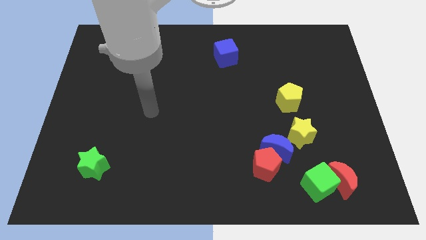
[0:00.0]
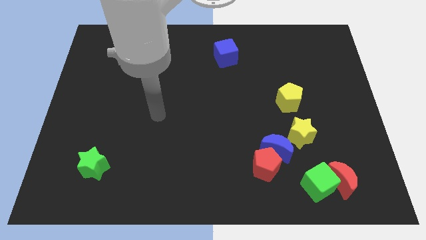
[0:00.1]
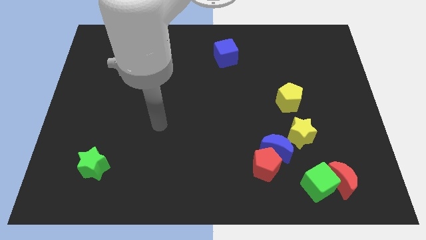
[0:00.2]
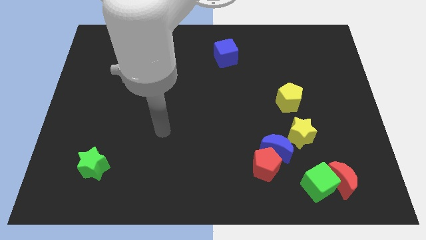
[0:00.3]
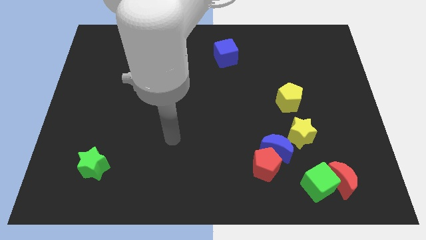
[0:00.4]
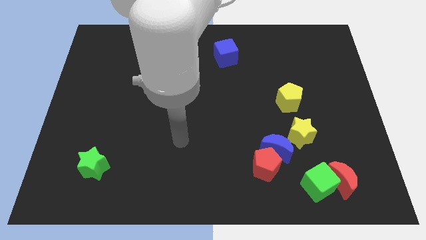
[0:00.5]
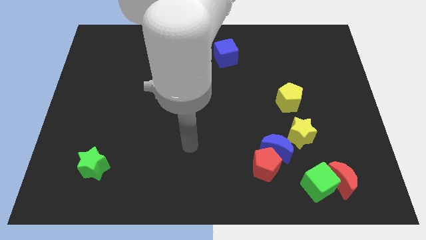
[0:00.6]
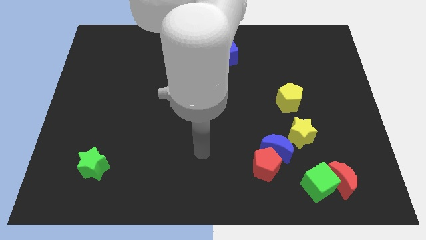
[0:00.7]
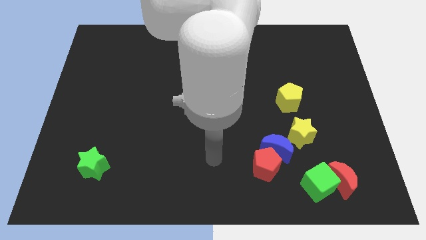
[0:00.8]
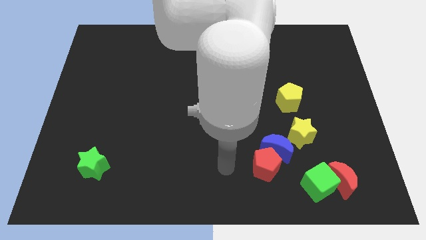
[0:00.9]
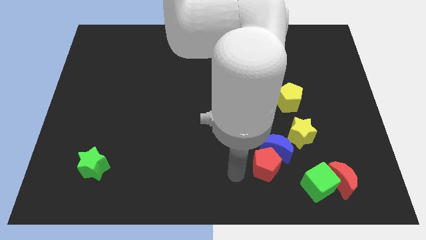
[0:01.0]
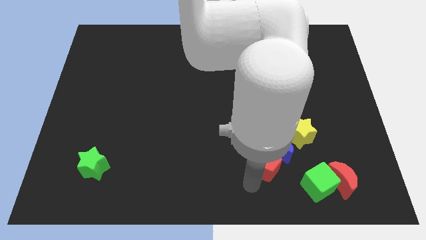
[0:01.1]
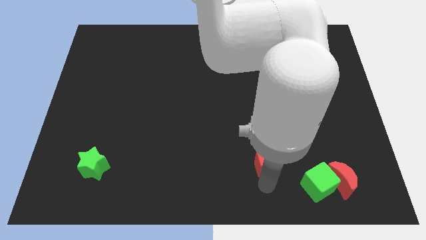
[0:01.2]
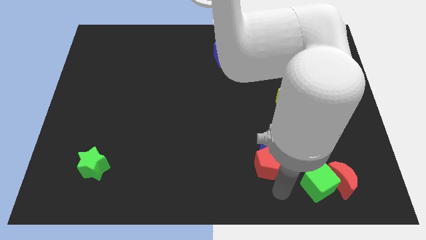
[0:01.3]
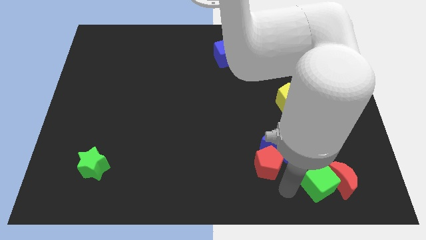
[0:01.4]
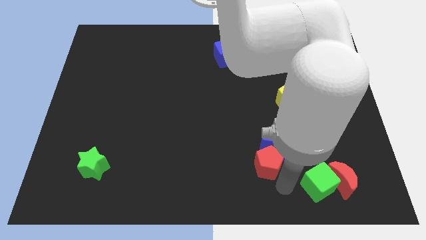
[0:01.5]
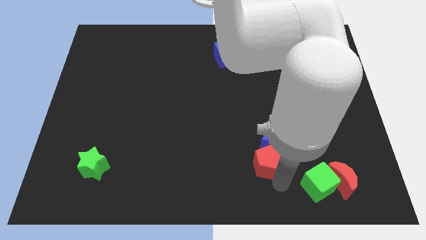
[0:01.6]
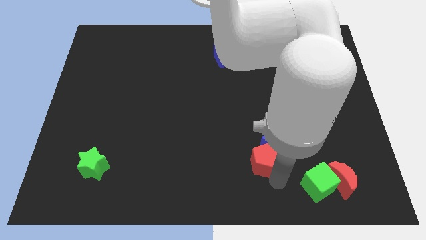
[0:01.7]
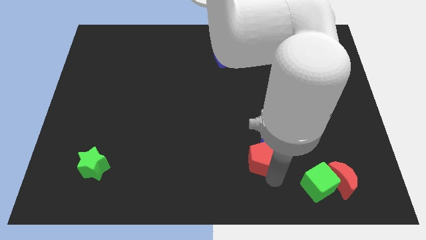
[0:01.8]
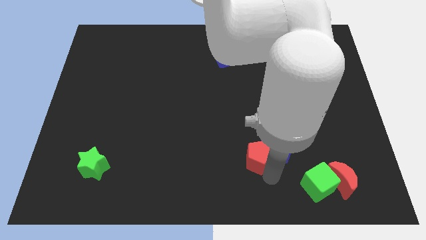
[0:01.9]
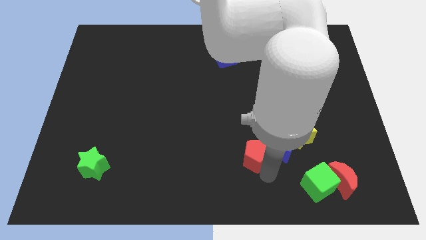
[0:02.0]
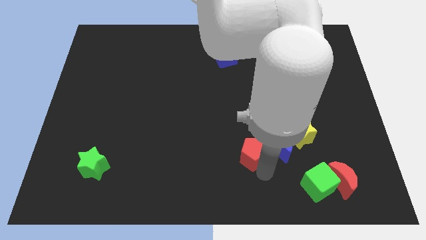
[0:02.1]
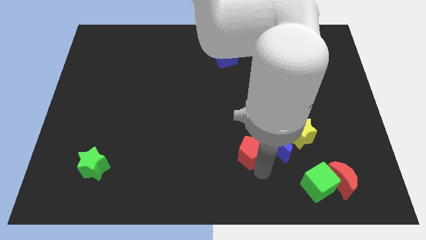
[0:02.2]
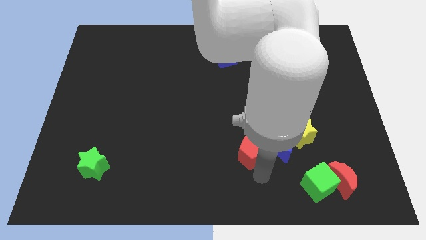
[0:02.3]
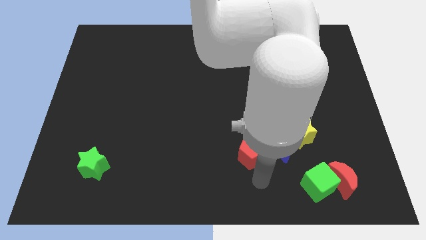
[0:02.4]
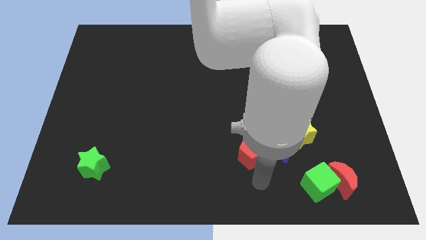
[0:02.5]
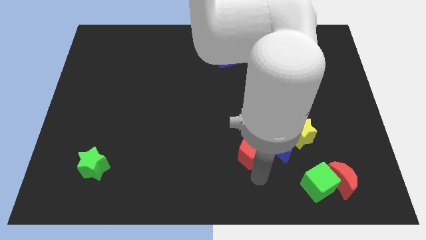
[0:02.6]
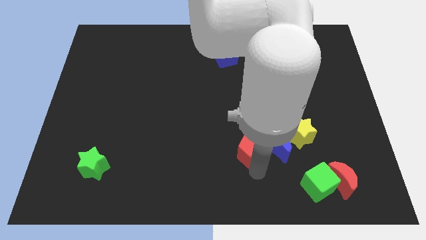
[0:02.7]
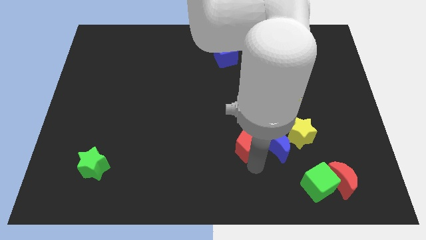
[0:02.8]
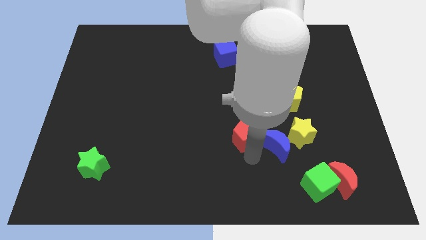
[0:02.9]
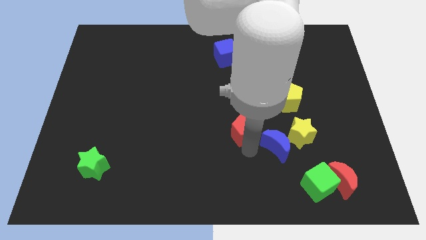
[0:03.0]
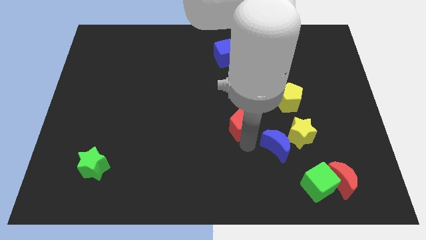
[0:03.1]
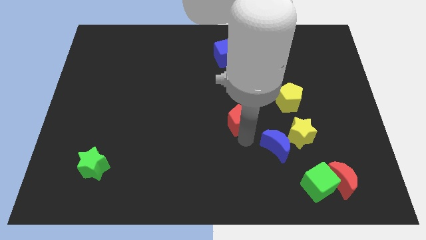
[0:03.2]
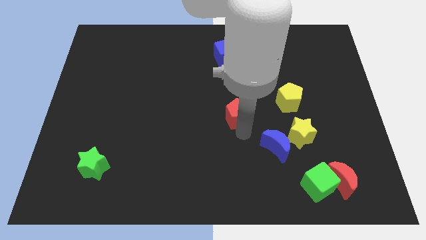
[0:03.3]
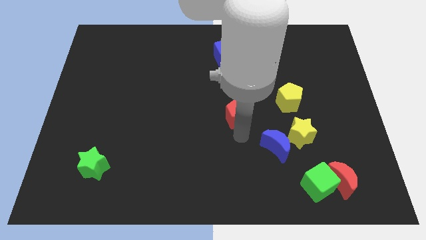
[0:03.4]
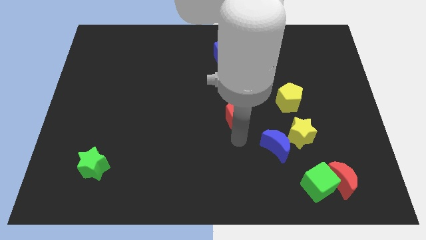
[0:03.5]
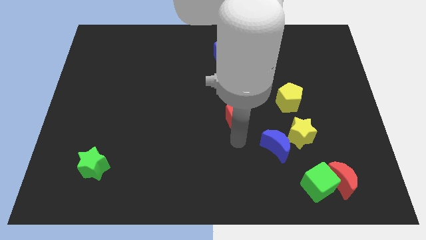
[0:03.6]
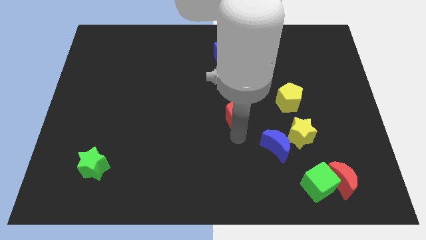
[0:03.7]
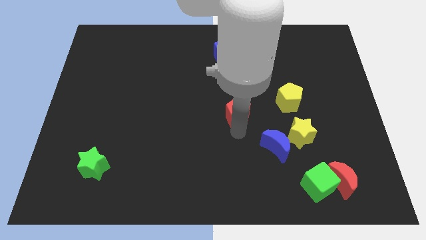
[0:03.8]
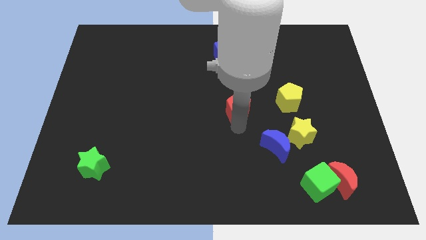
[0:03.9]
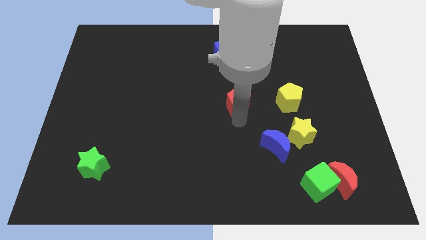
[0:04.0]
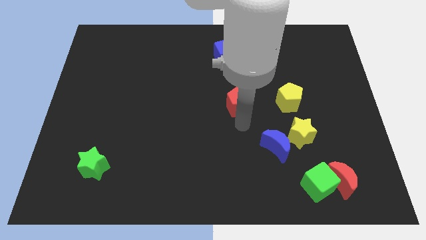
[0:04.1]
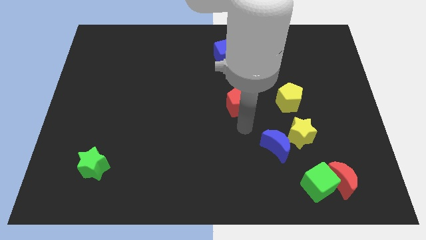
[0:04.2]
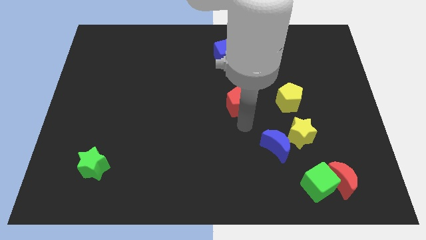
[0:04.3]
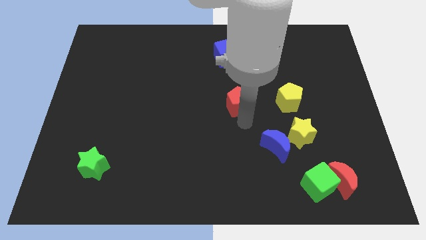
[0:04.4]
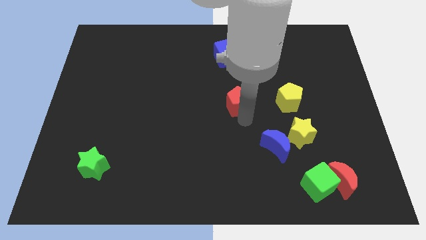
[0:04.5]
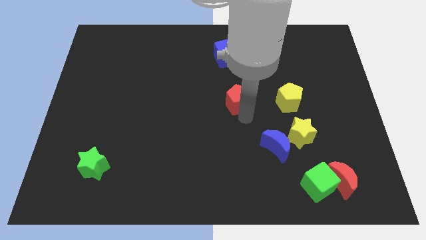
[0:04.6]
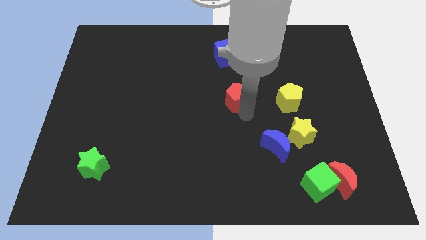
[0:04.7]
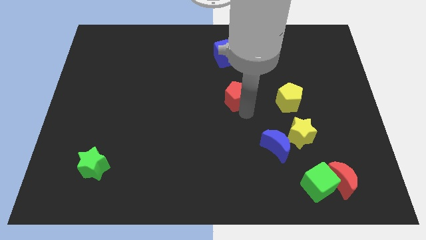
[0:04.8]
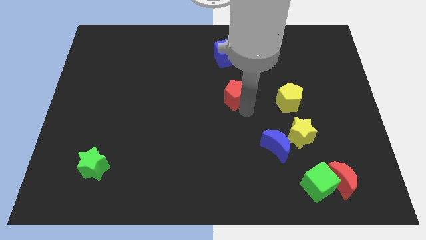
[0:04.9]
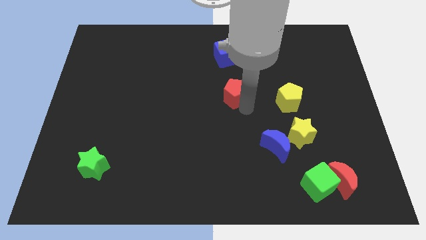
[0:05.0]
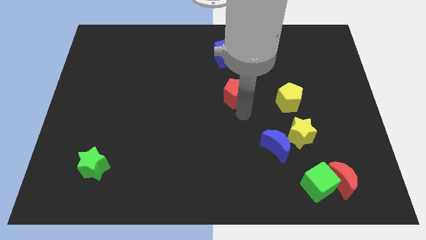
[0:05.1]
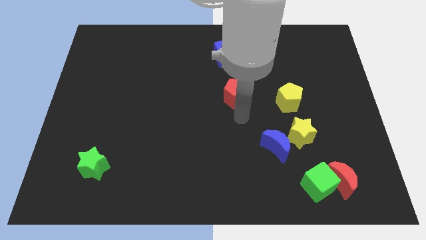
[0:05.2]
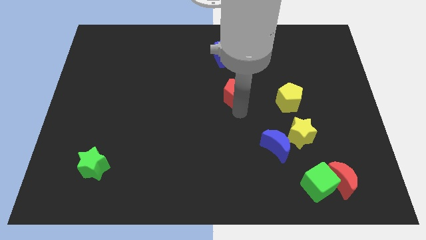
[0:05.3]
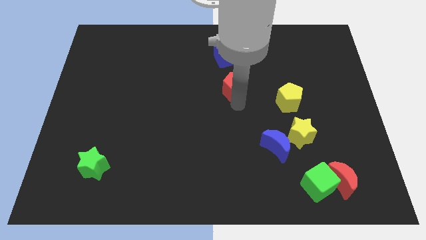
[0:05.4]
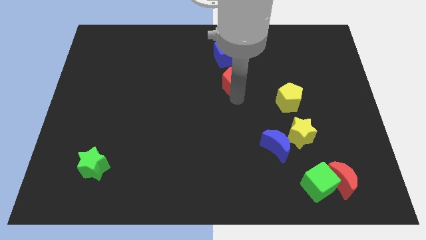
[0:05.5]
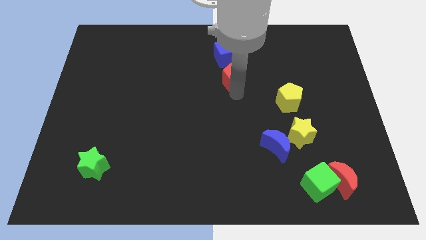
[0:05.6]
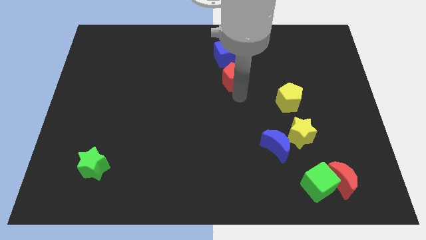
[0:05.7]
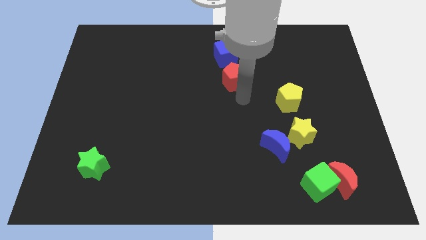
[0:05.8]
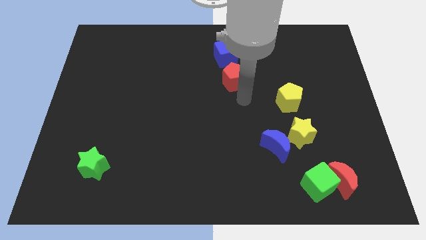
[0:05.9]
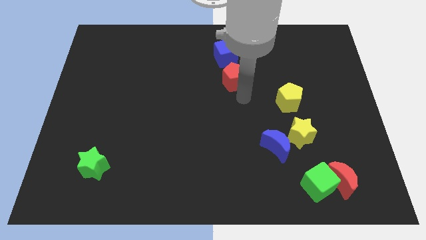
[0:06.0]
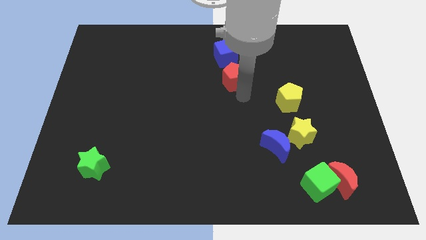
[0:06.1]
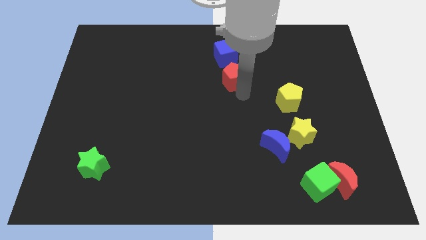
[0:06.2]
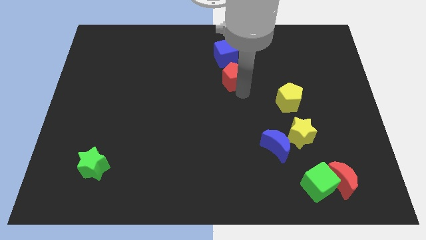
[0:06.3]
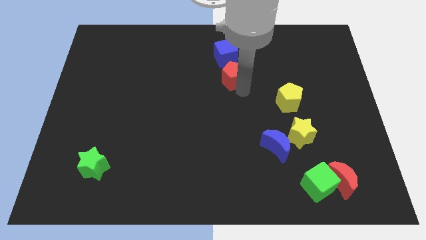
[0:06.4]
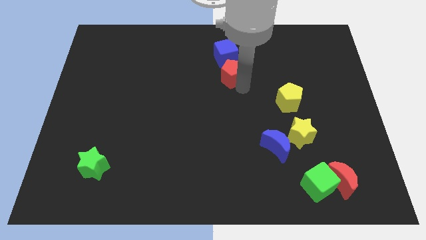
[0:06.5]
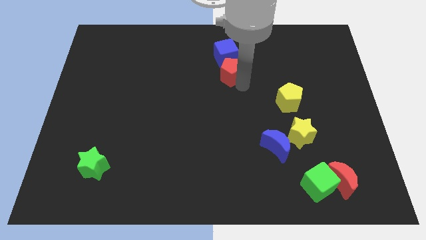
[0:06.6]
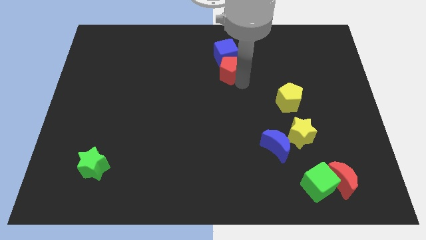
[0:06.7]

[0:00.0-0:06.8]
put the red pentagon towards the blue cube

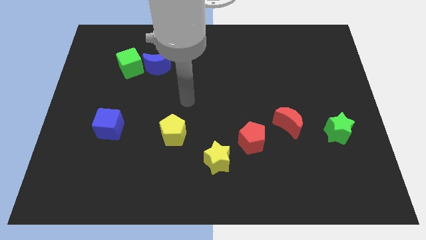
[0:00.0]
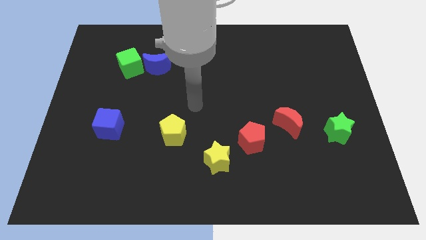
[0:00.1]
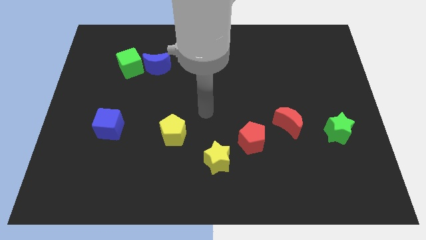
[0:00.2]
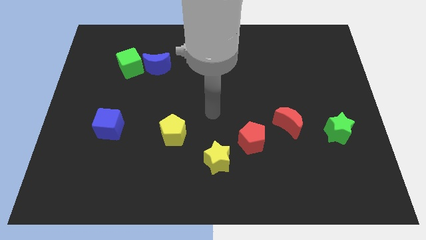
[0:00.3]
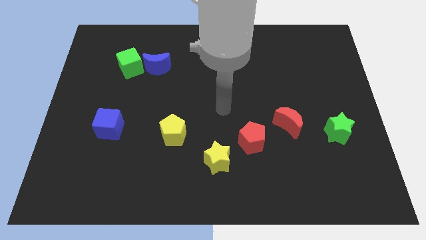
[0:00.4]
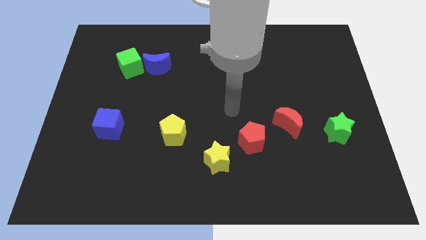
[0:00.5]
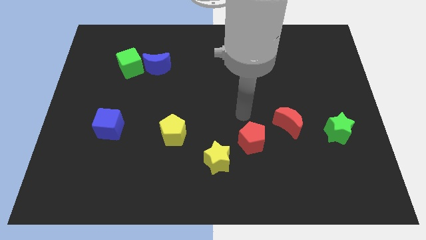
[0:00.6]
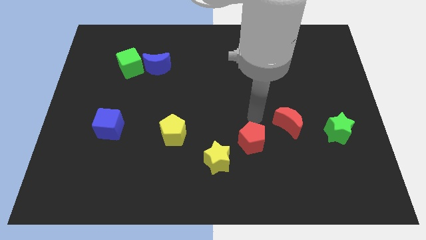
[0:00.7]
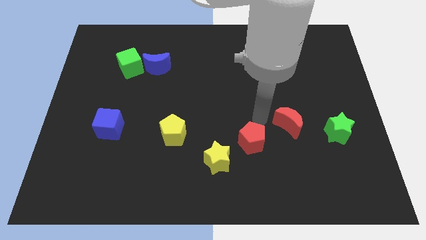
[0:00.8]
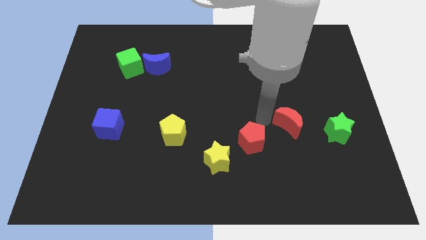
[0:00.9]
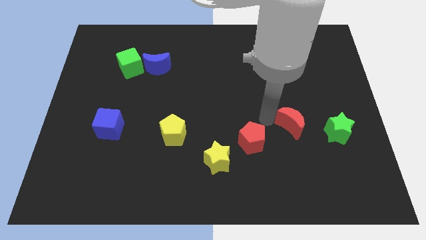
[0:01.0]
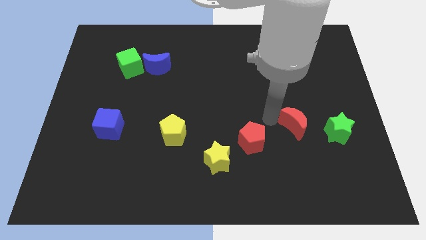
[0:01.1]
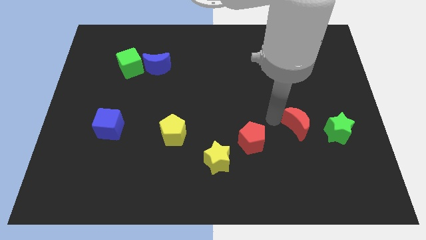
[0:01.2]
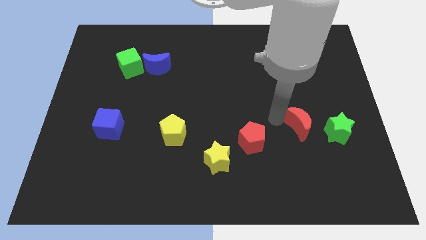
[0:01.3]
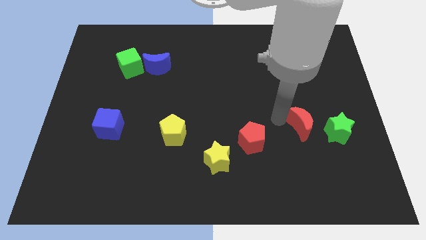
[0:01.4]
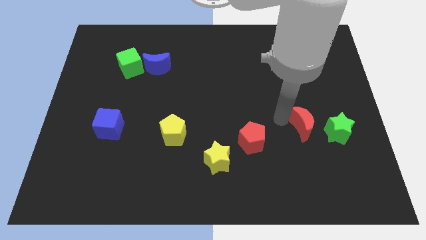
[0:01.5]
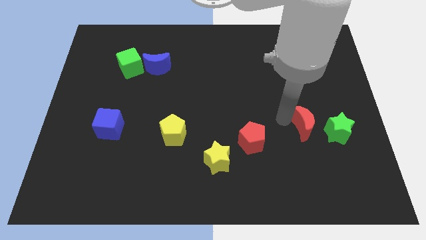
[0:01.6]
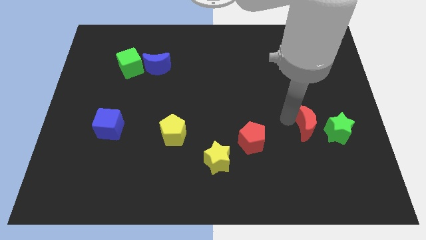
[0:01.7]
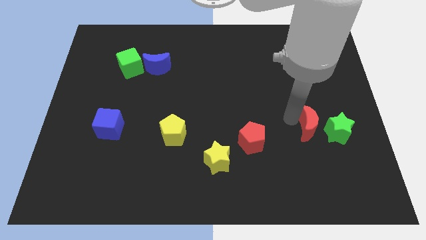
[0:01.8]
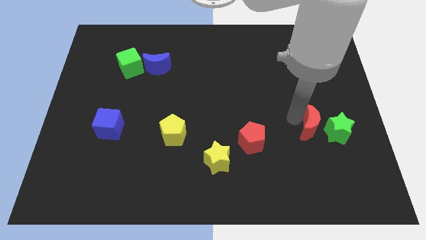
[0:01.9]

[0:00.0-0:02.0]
move the red moon to the green star
